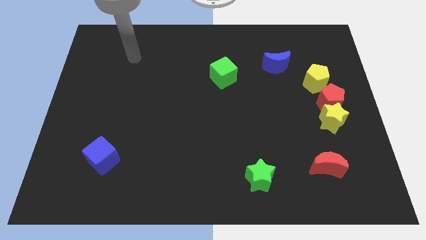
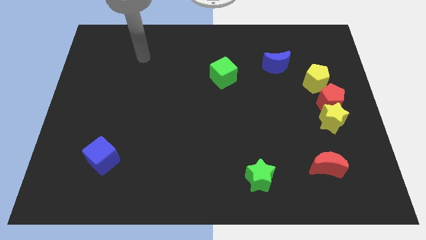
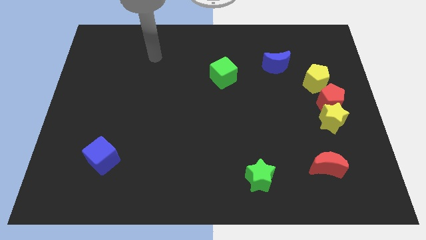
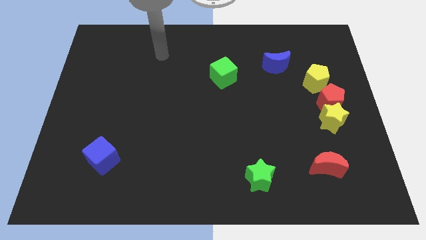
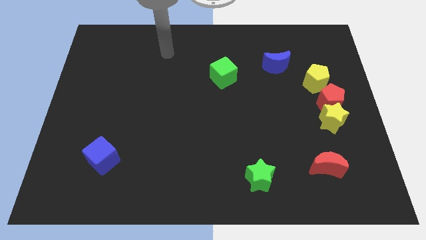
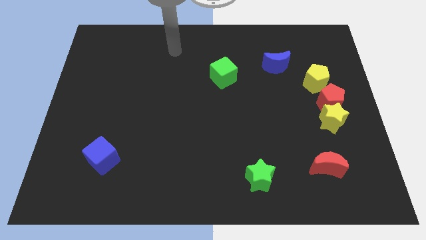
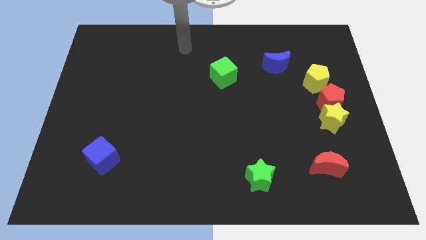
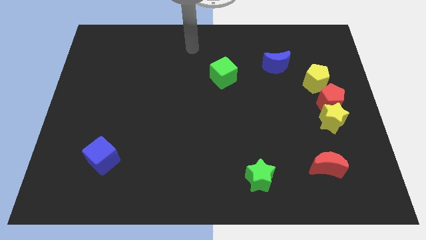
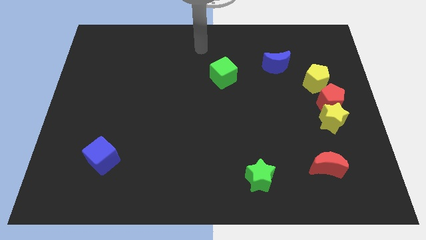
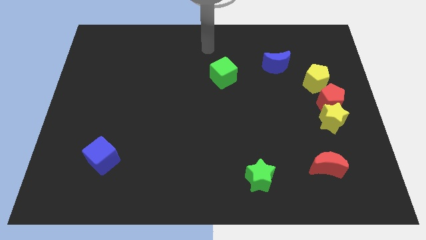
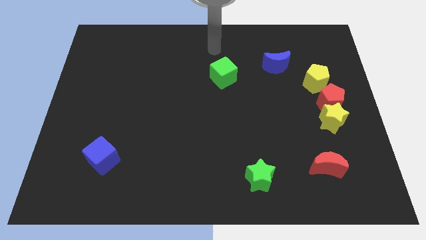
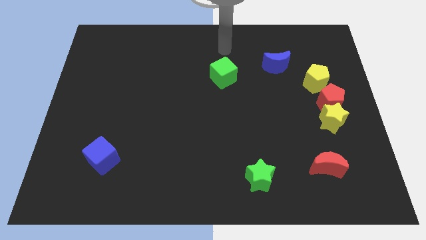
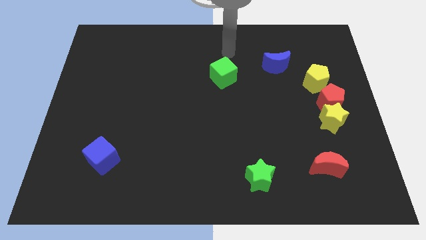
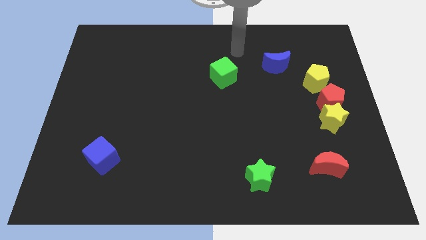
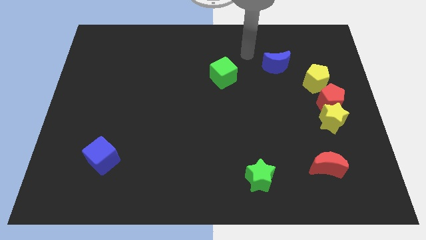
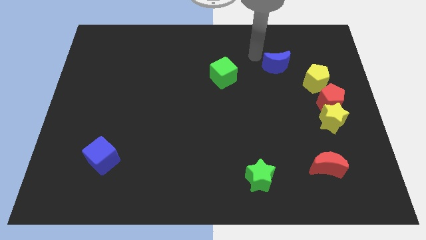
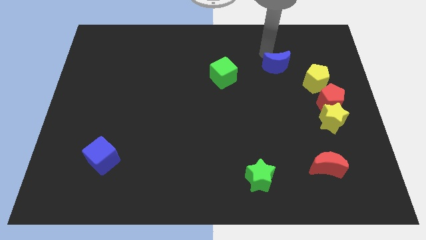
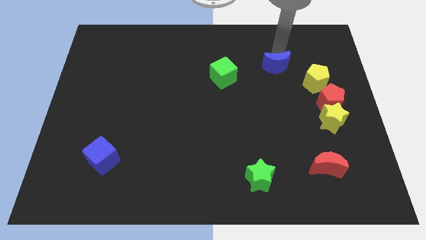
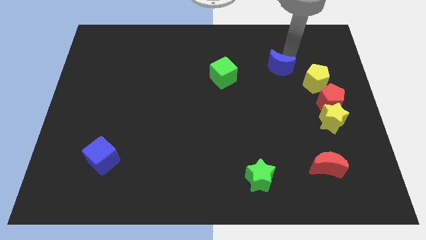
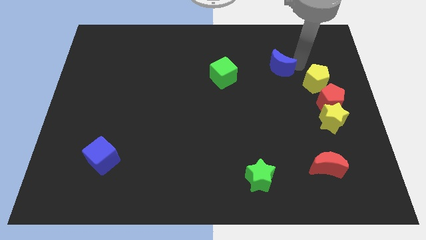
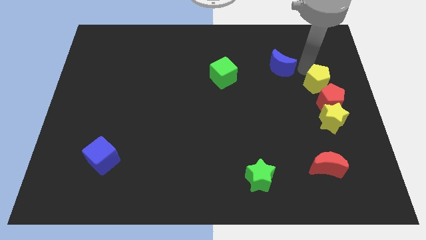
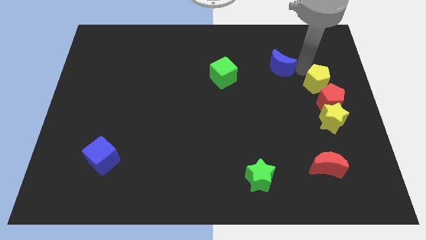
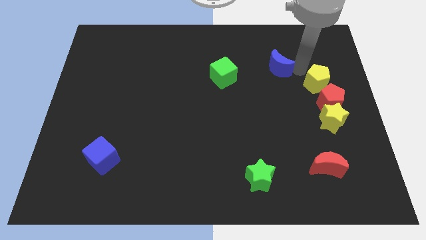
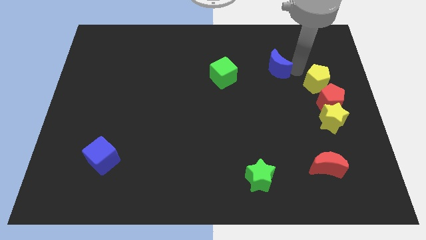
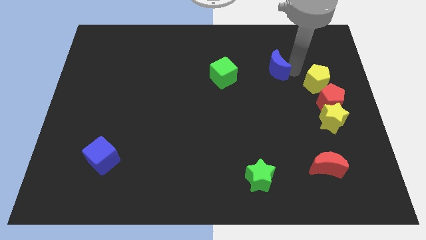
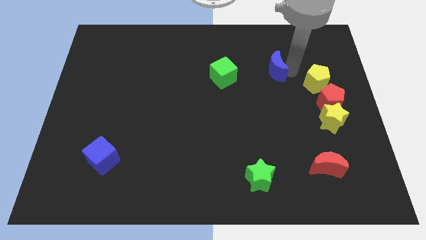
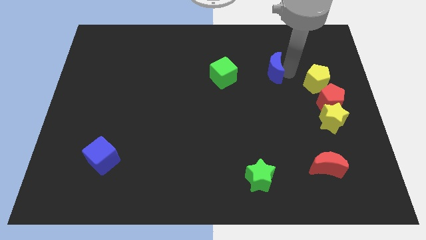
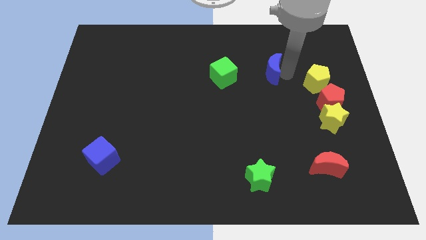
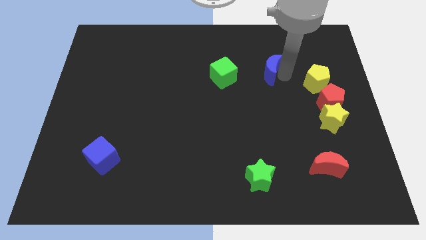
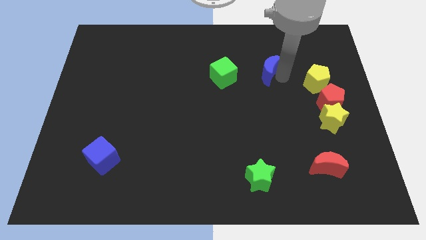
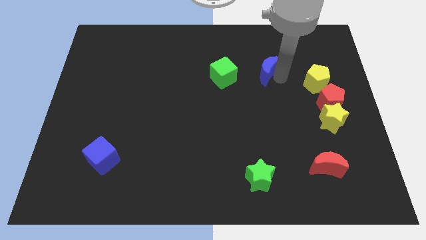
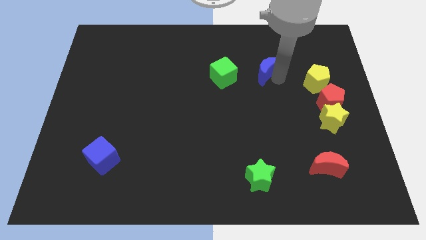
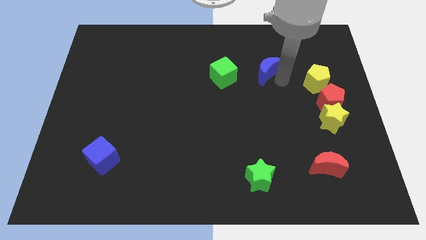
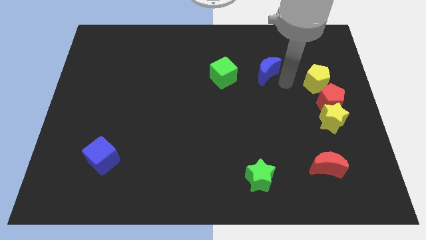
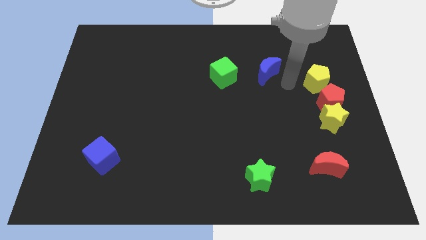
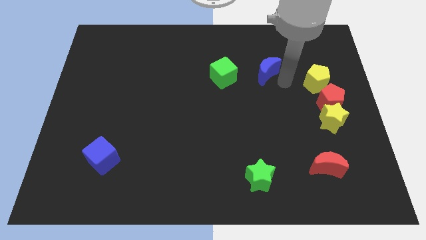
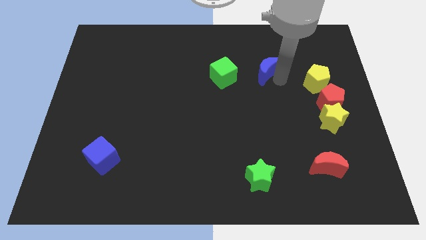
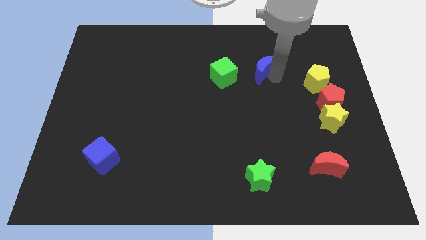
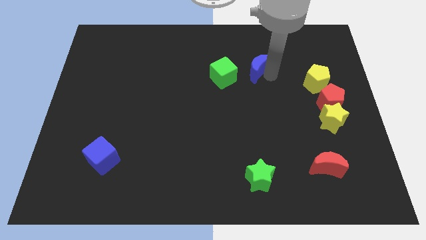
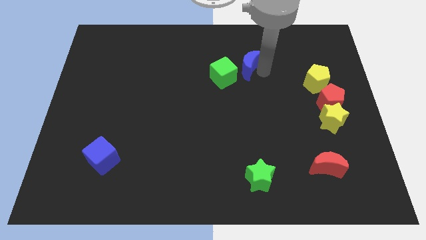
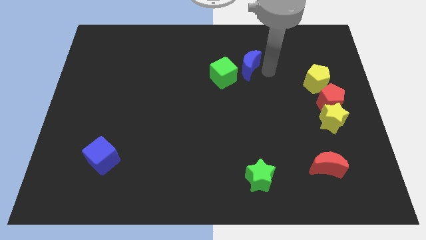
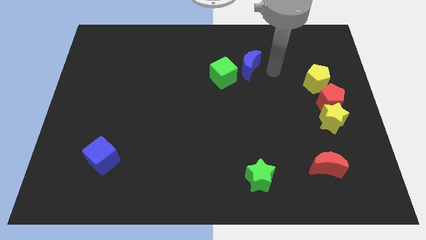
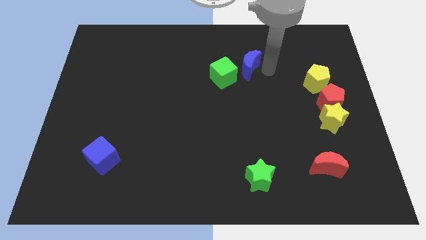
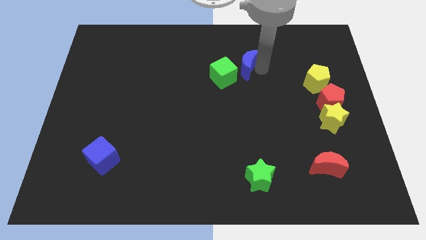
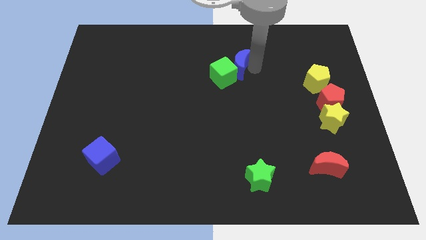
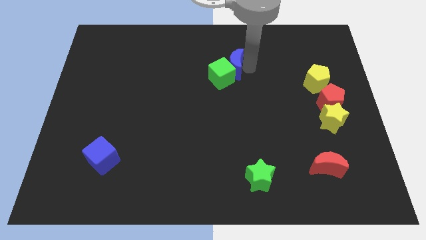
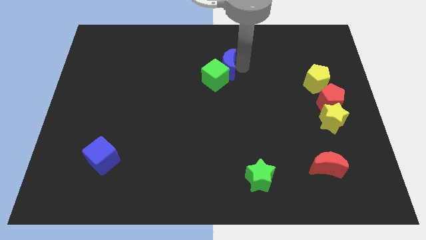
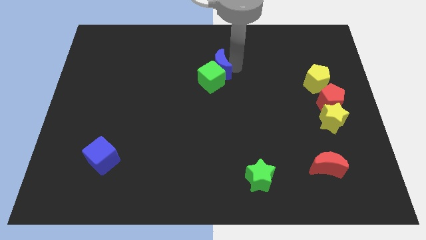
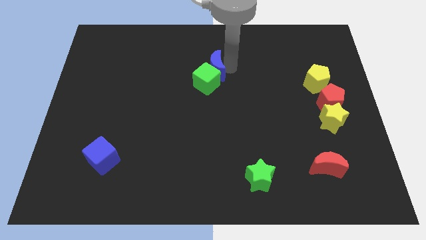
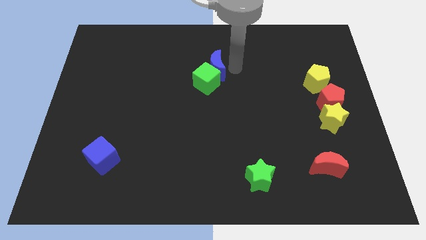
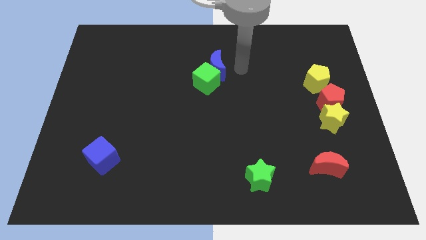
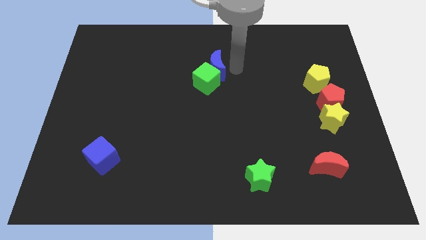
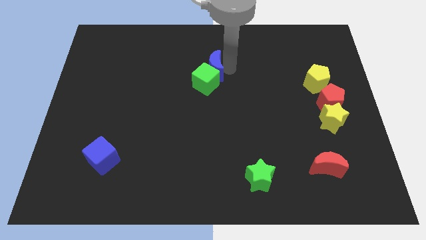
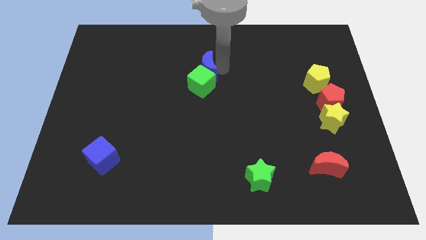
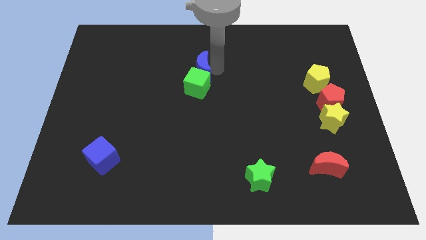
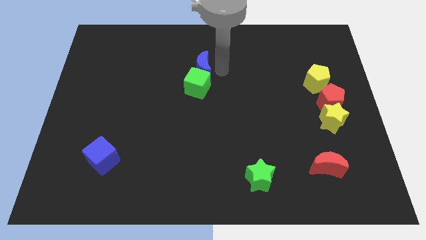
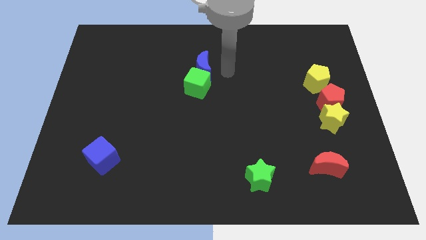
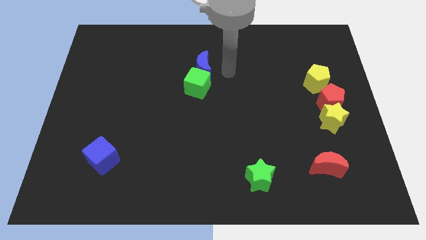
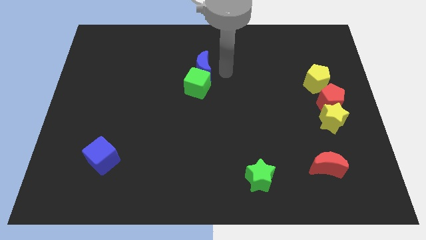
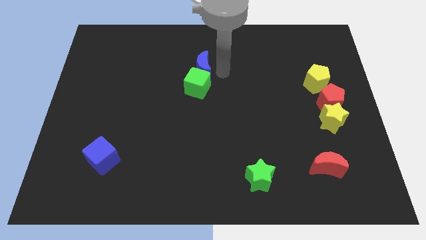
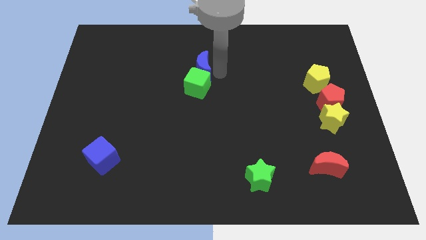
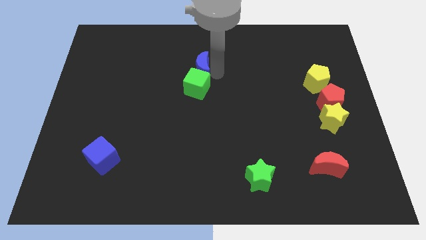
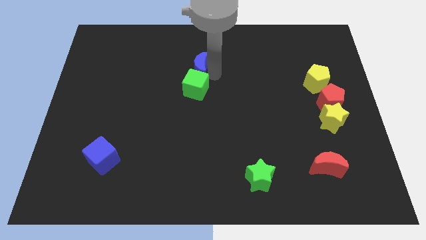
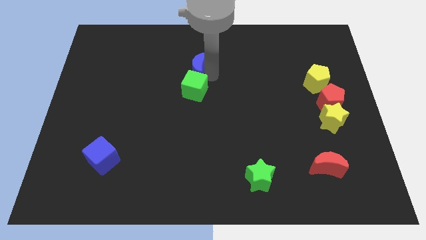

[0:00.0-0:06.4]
push the blue moon to the left

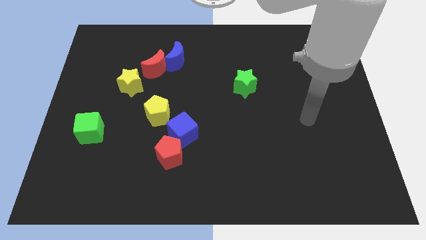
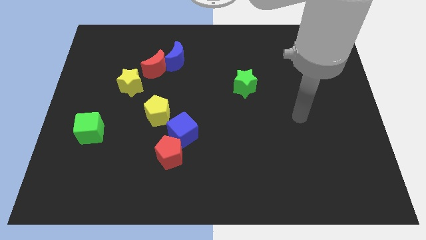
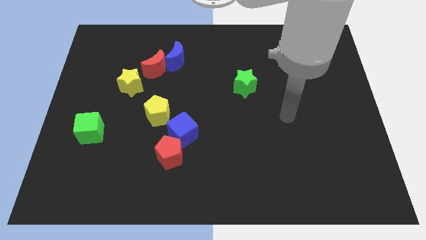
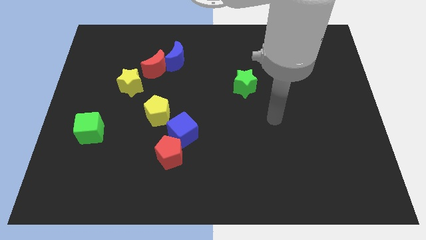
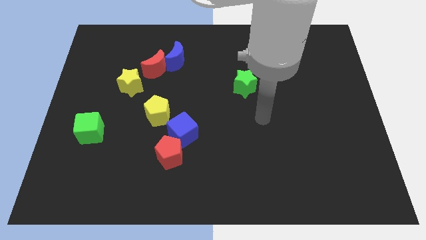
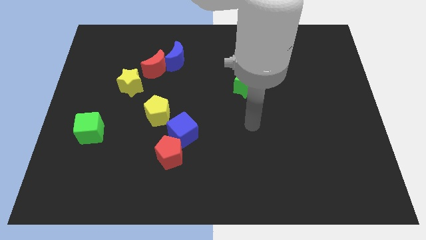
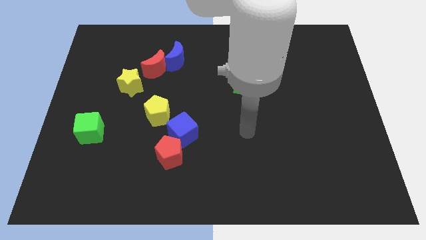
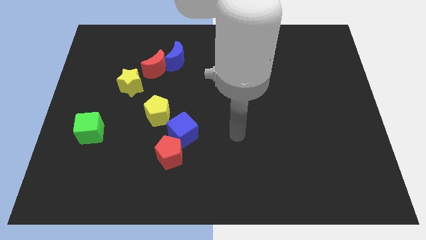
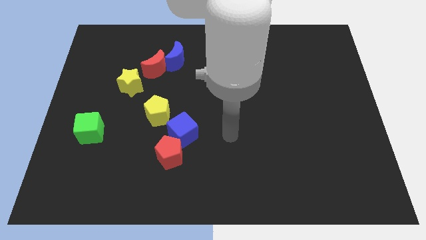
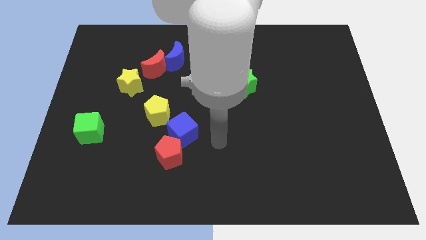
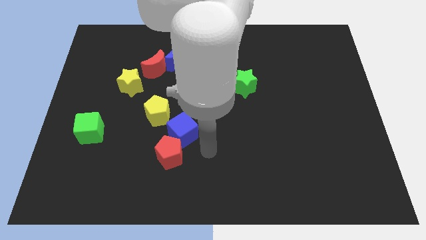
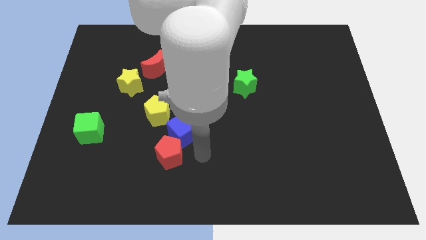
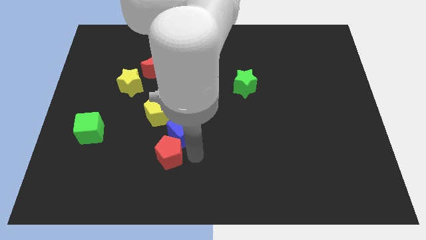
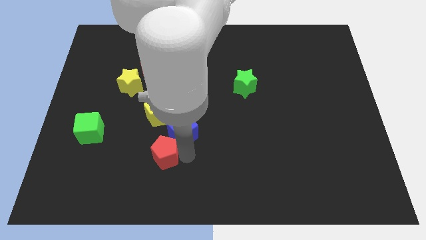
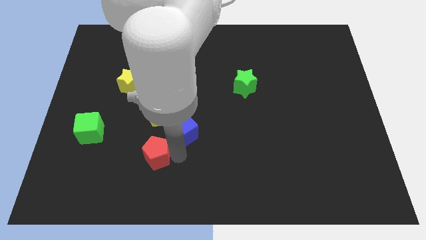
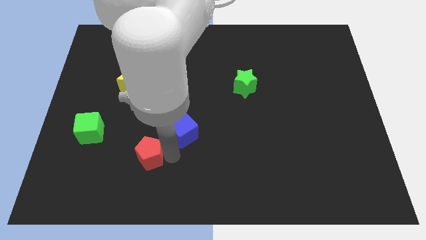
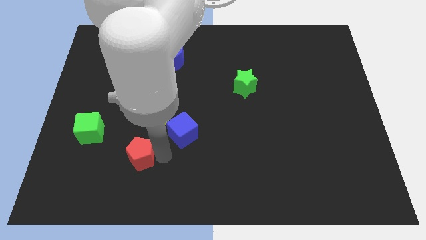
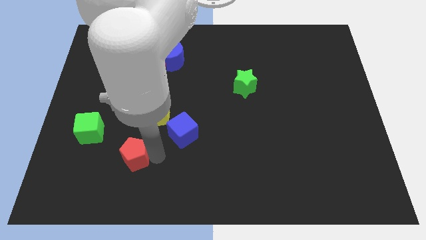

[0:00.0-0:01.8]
slightly push the red pentagon to the left
